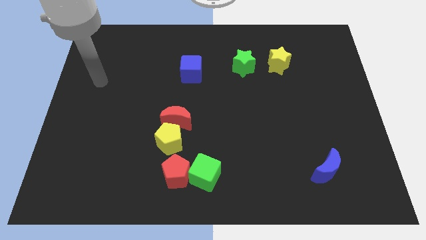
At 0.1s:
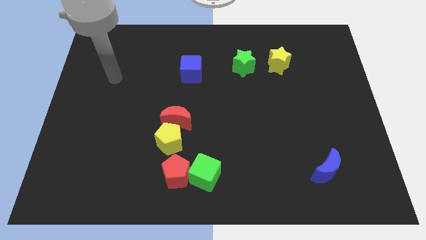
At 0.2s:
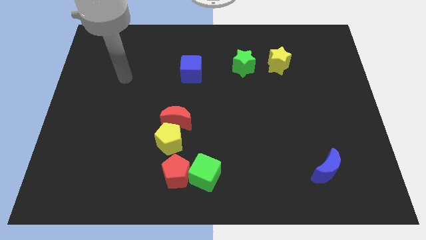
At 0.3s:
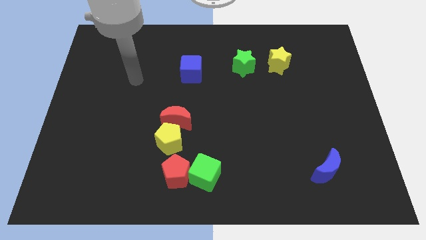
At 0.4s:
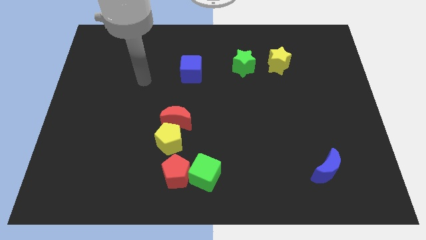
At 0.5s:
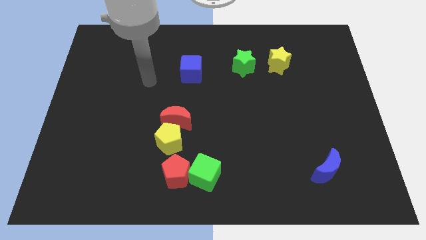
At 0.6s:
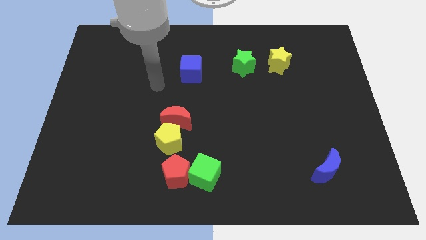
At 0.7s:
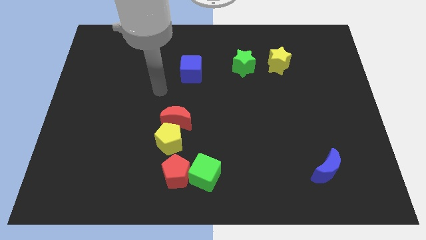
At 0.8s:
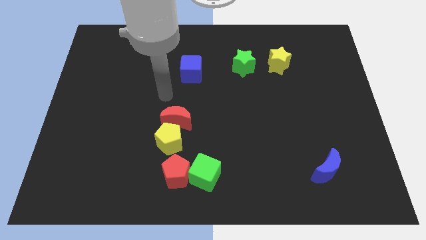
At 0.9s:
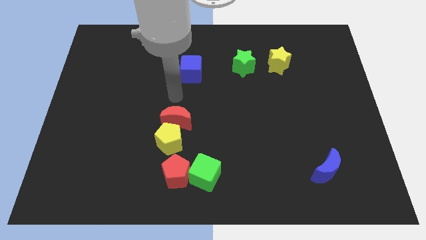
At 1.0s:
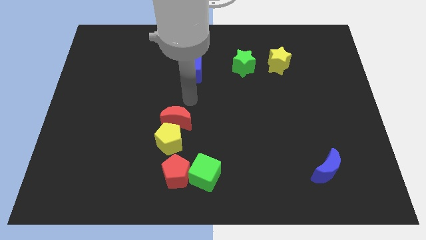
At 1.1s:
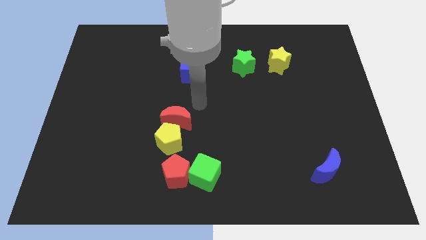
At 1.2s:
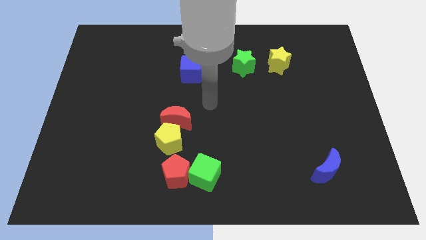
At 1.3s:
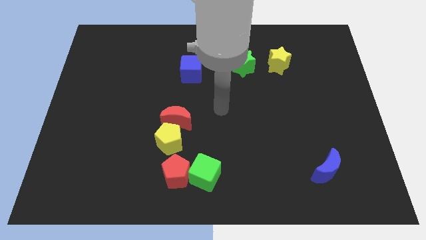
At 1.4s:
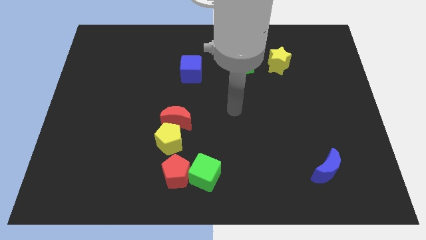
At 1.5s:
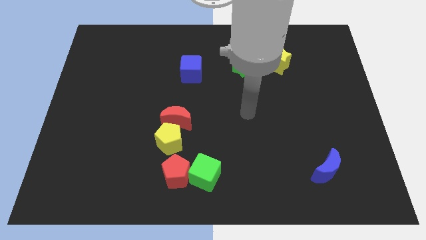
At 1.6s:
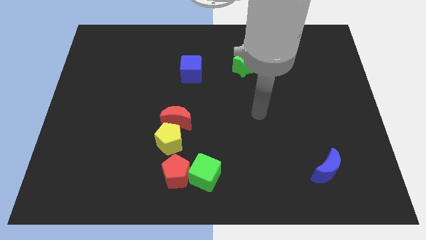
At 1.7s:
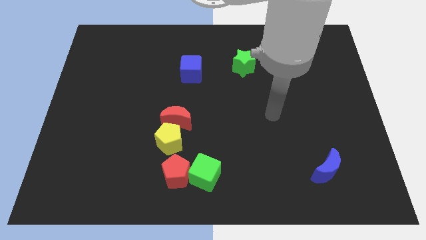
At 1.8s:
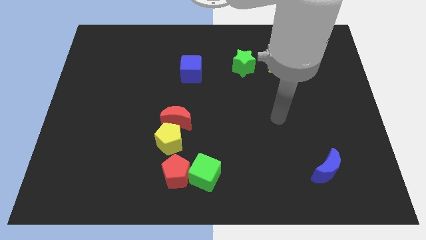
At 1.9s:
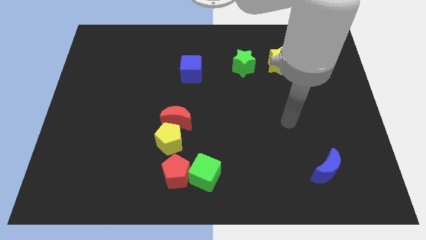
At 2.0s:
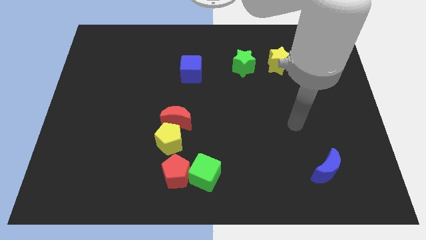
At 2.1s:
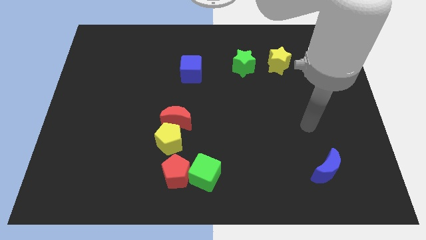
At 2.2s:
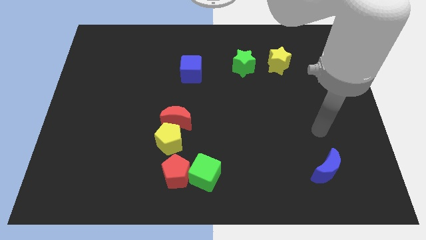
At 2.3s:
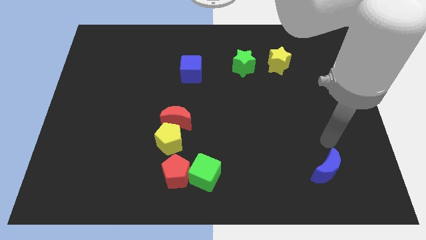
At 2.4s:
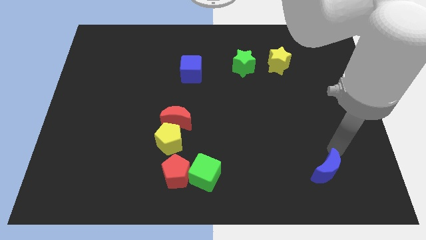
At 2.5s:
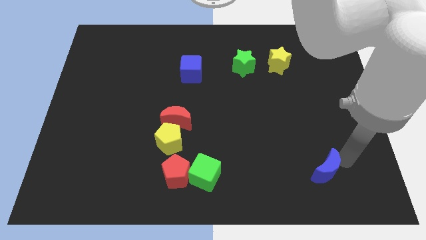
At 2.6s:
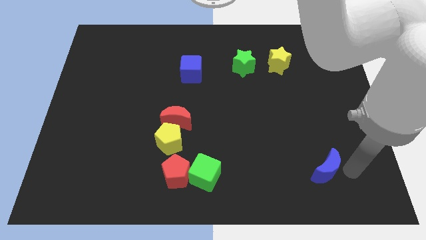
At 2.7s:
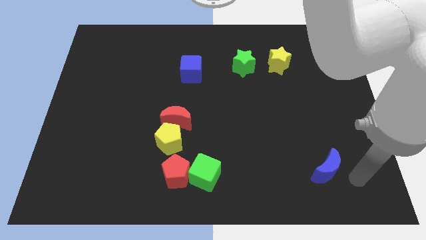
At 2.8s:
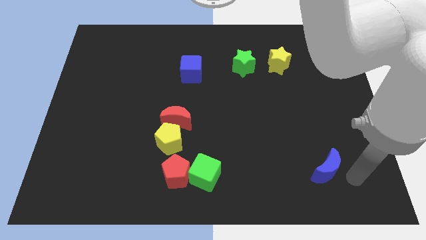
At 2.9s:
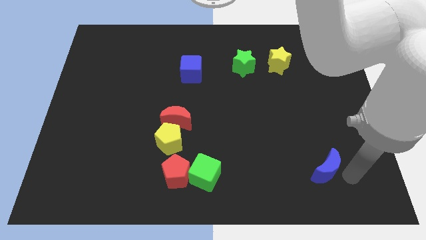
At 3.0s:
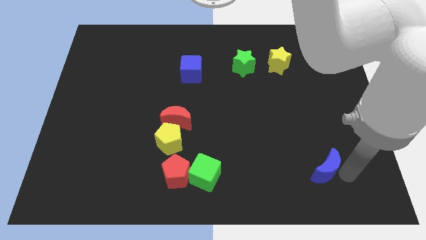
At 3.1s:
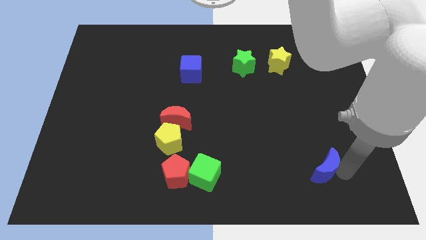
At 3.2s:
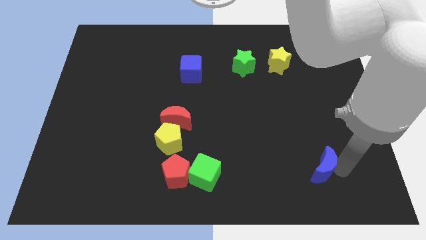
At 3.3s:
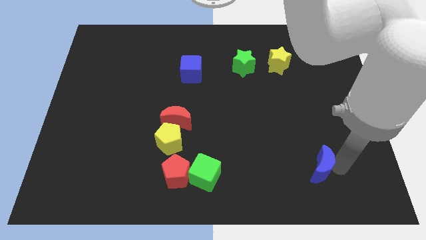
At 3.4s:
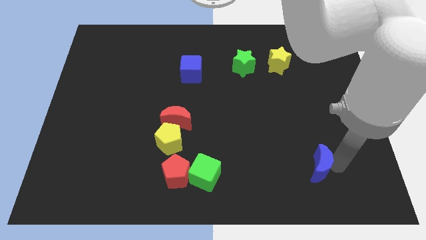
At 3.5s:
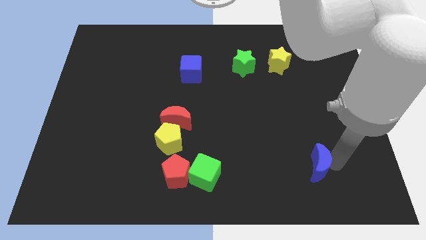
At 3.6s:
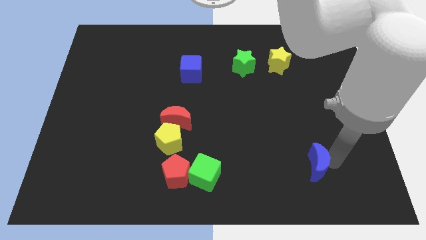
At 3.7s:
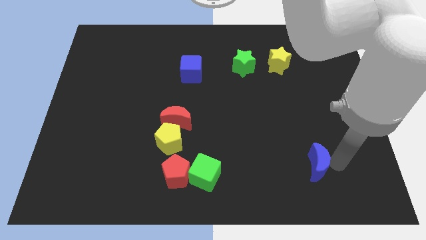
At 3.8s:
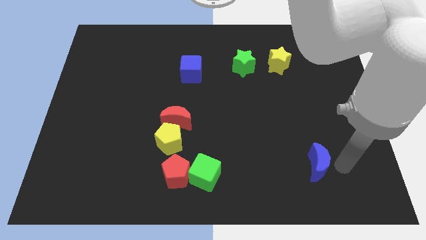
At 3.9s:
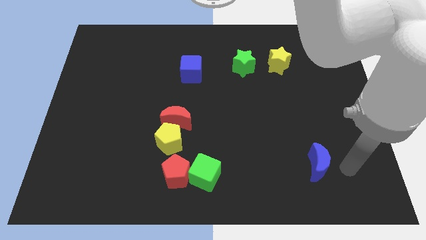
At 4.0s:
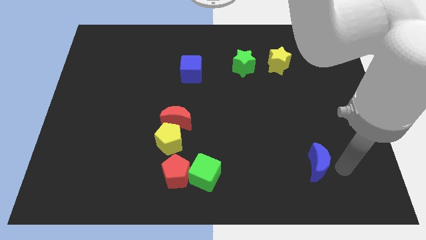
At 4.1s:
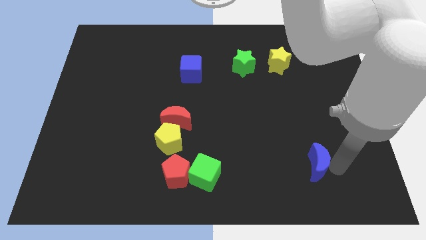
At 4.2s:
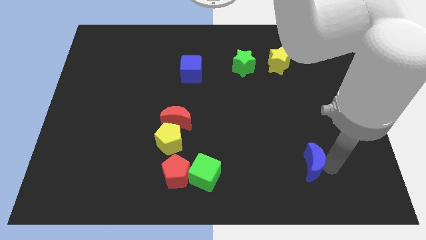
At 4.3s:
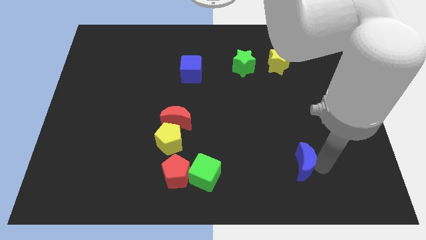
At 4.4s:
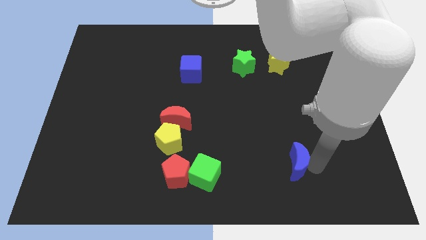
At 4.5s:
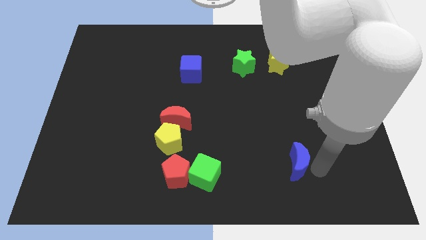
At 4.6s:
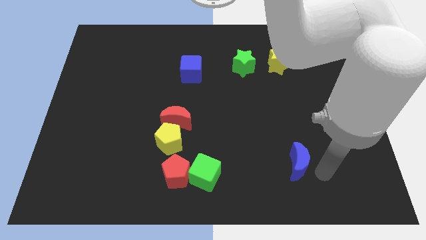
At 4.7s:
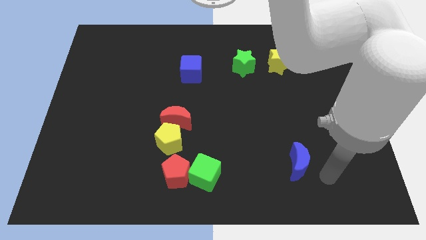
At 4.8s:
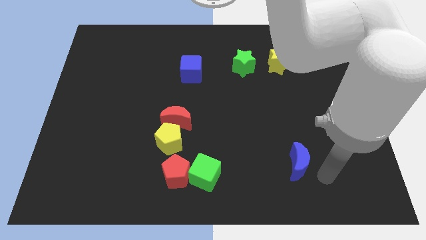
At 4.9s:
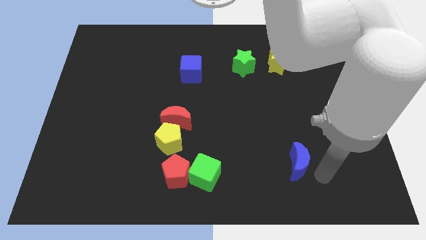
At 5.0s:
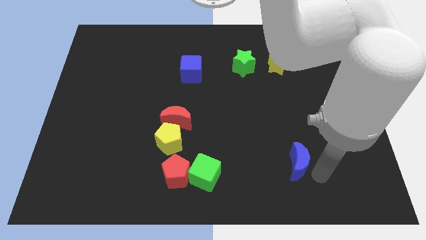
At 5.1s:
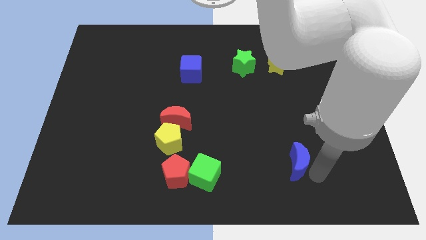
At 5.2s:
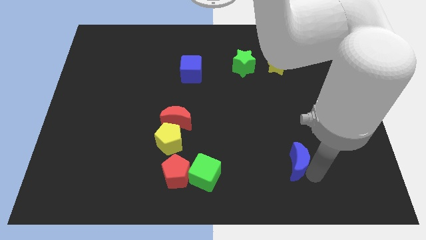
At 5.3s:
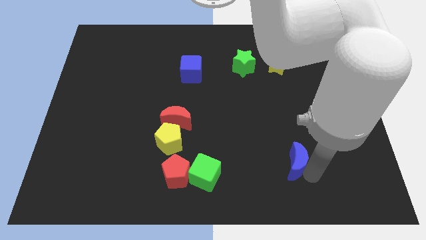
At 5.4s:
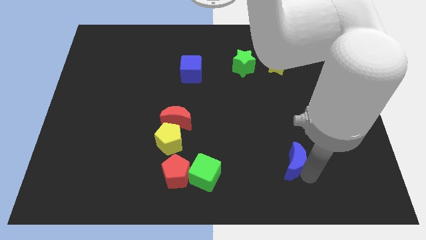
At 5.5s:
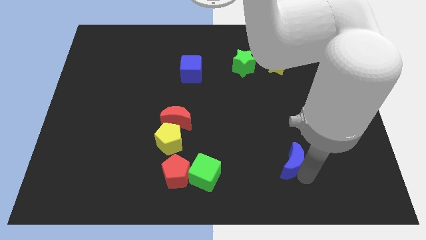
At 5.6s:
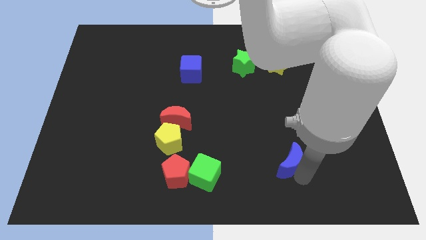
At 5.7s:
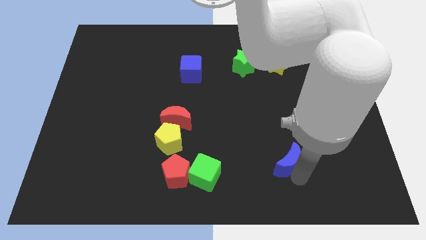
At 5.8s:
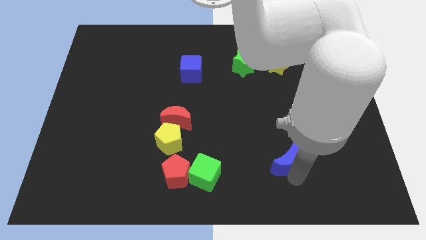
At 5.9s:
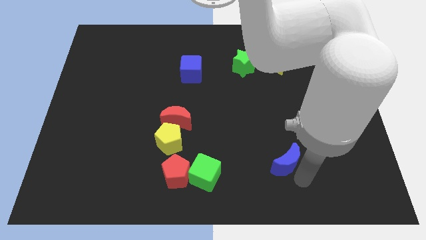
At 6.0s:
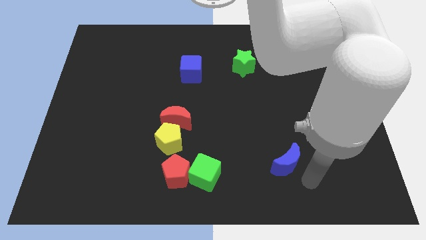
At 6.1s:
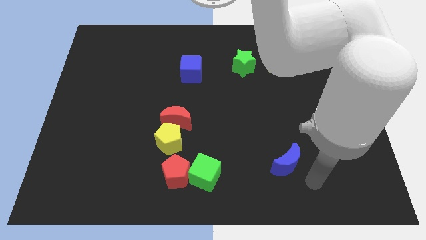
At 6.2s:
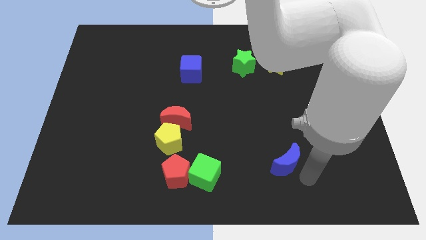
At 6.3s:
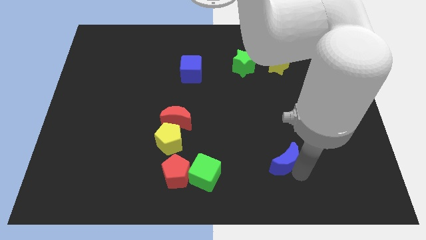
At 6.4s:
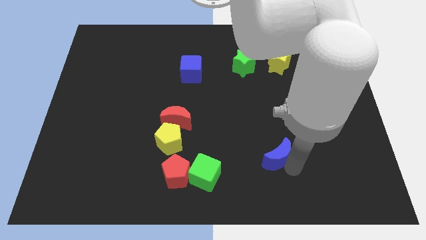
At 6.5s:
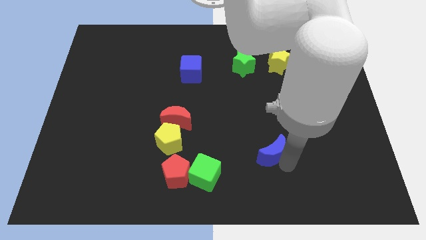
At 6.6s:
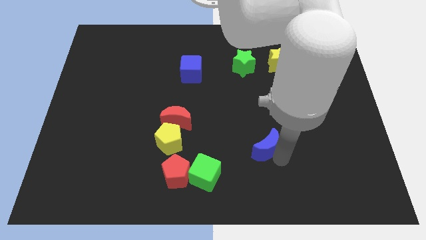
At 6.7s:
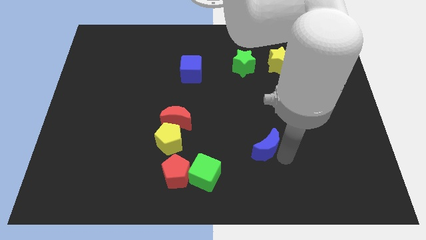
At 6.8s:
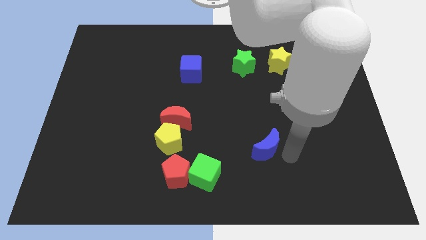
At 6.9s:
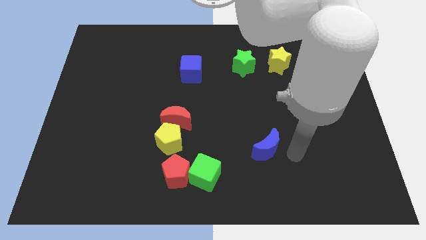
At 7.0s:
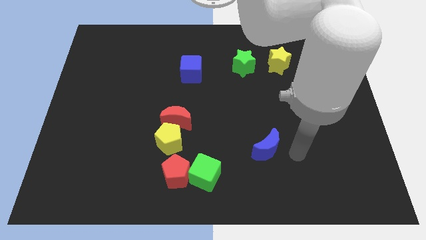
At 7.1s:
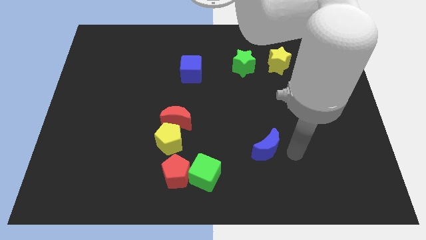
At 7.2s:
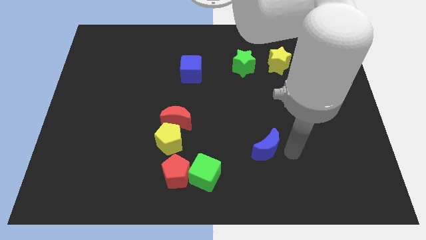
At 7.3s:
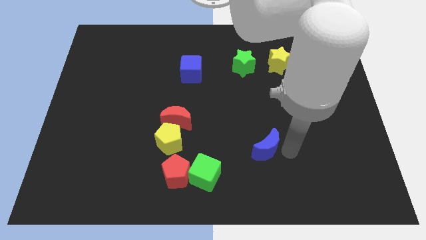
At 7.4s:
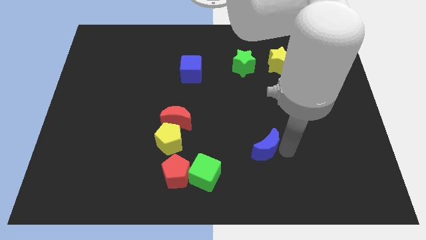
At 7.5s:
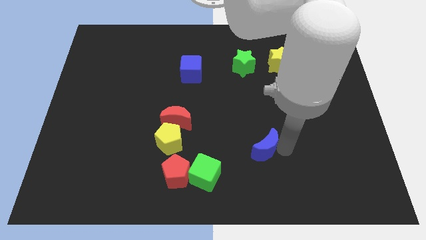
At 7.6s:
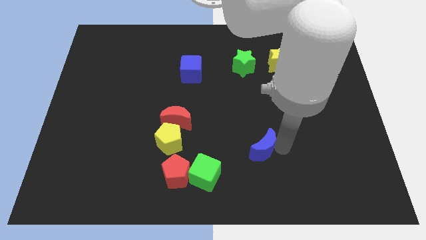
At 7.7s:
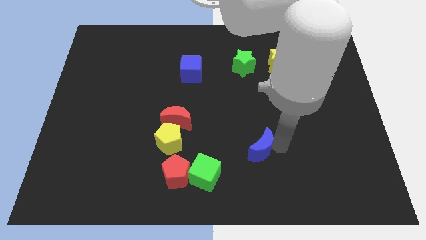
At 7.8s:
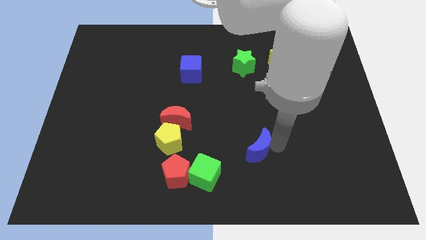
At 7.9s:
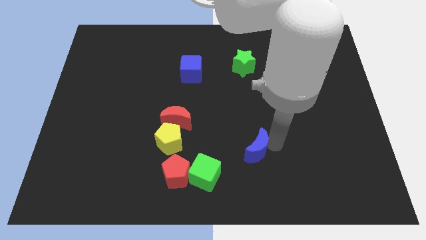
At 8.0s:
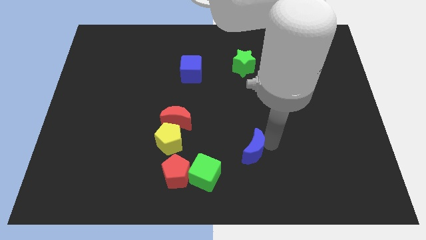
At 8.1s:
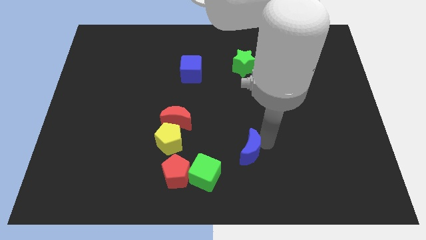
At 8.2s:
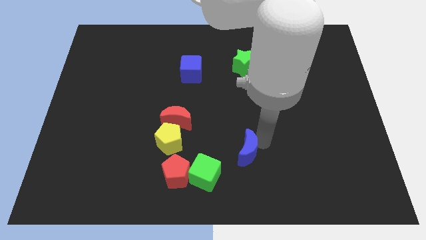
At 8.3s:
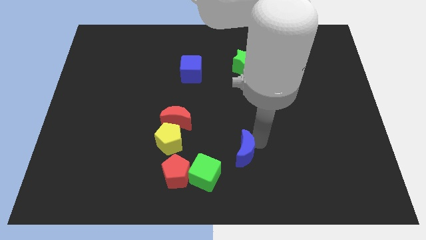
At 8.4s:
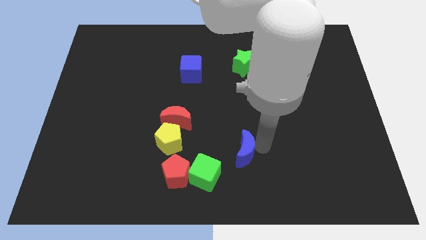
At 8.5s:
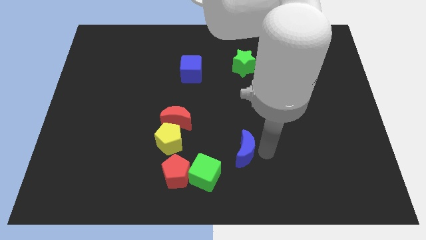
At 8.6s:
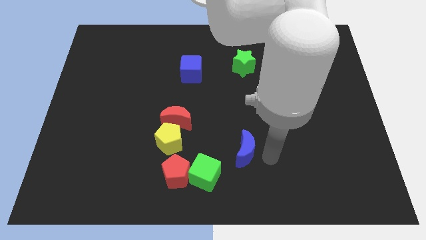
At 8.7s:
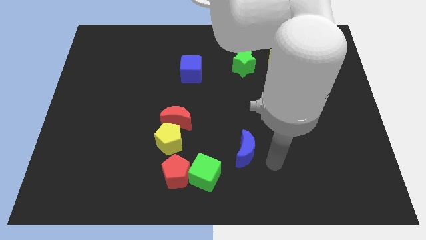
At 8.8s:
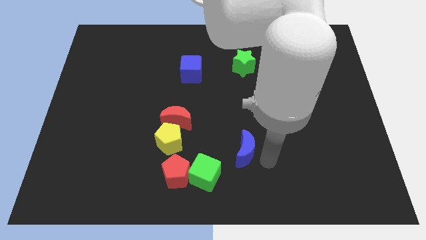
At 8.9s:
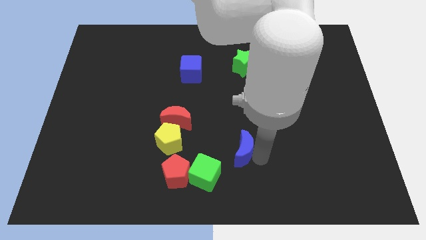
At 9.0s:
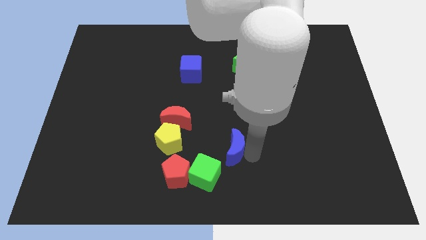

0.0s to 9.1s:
push the blue moon right of the yellow pentagon
